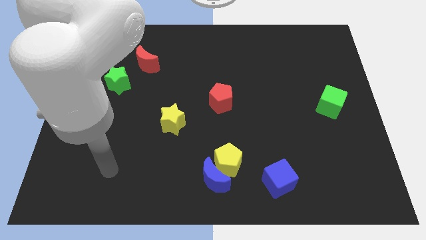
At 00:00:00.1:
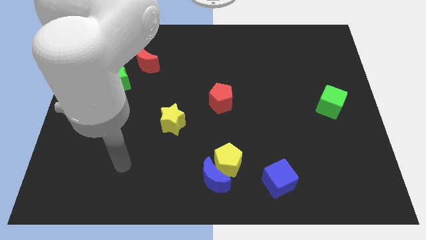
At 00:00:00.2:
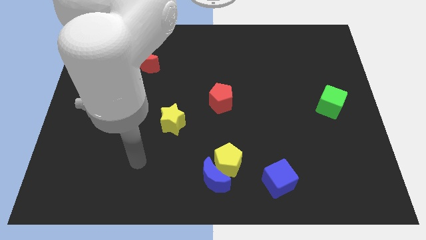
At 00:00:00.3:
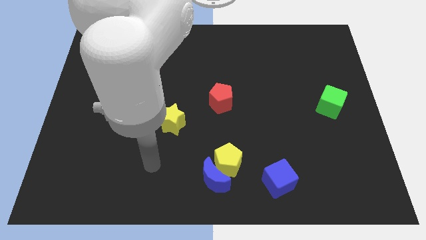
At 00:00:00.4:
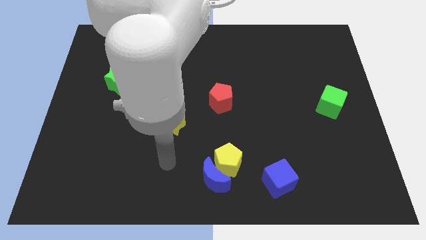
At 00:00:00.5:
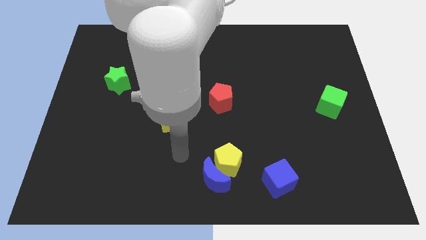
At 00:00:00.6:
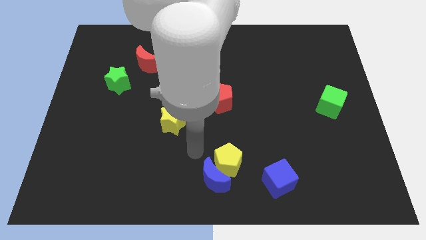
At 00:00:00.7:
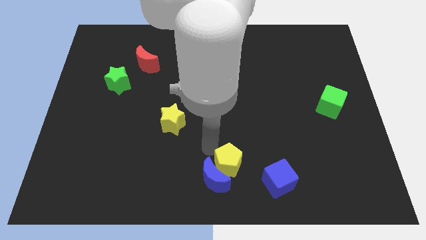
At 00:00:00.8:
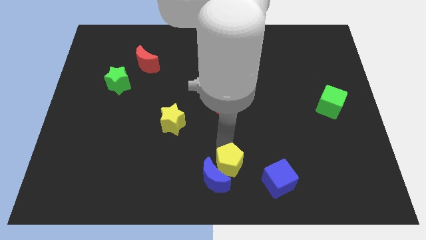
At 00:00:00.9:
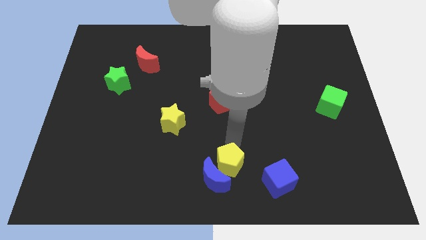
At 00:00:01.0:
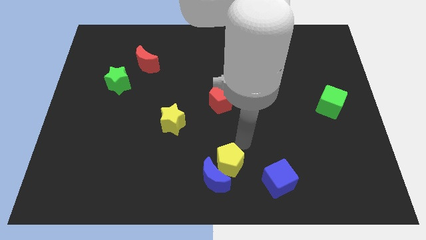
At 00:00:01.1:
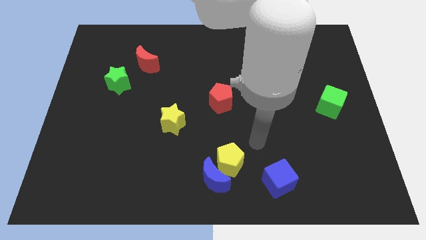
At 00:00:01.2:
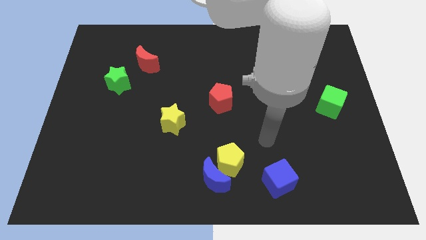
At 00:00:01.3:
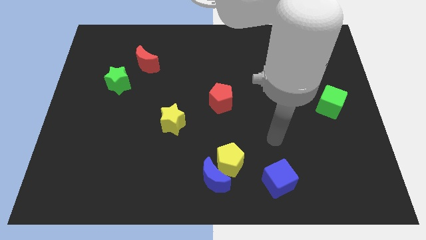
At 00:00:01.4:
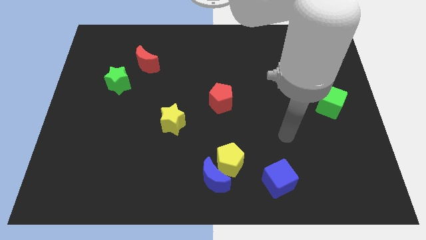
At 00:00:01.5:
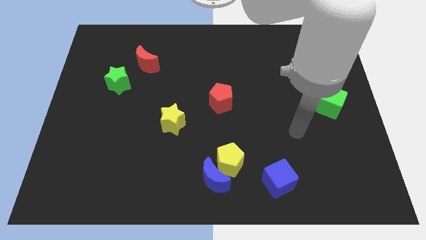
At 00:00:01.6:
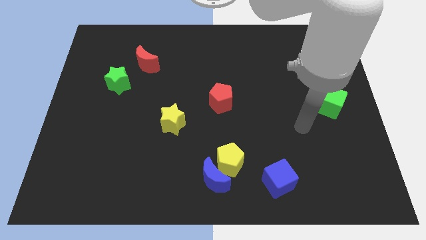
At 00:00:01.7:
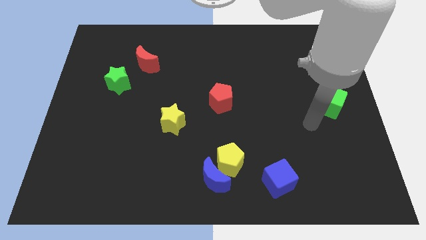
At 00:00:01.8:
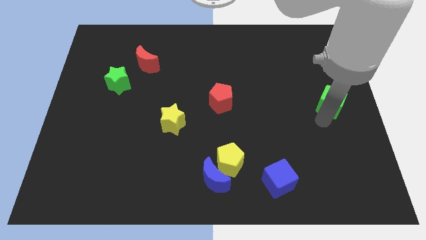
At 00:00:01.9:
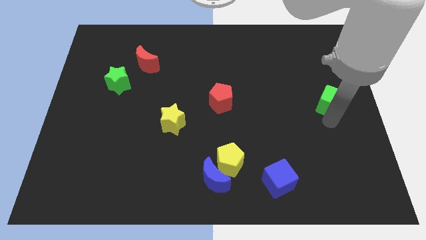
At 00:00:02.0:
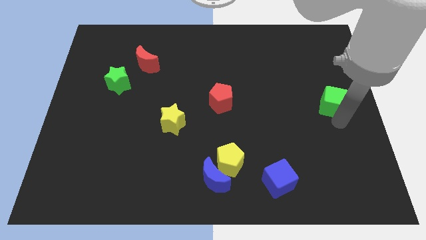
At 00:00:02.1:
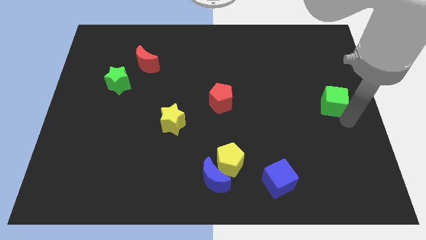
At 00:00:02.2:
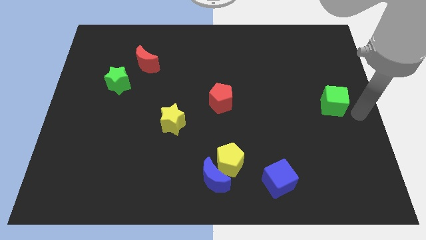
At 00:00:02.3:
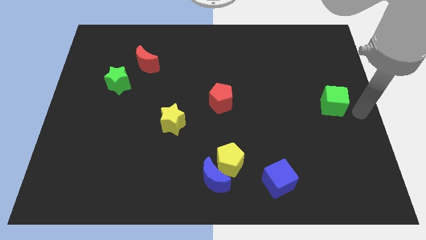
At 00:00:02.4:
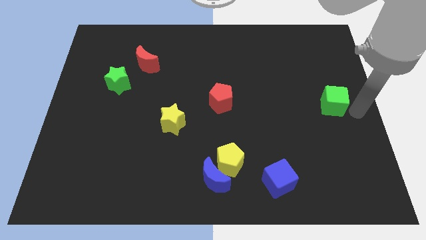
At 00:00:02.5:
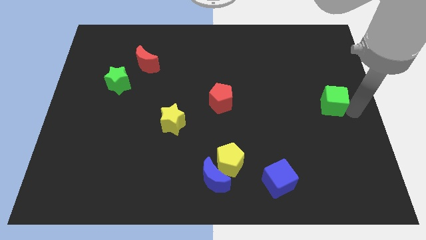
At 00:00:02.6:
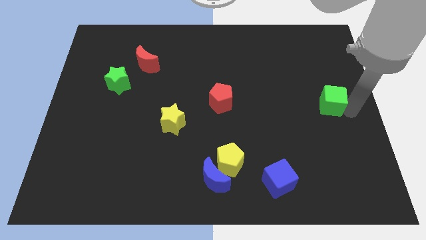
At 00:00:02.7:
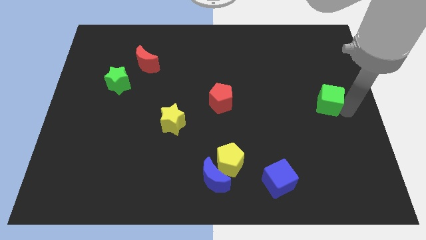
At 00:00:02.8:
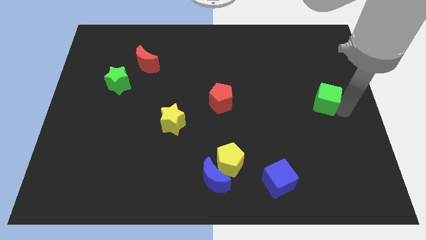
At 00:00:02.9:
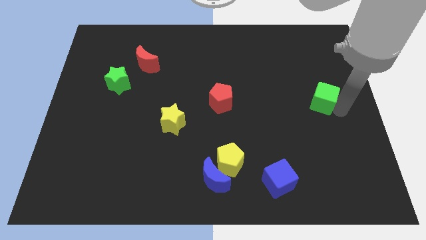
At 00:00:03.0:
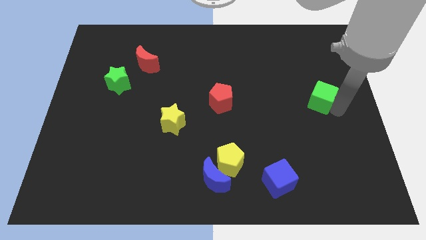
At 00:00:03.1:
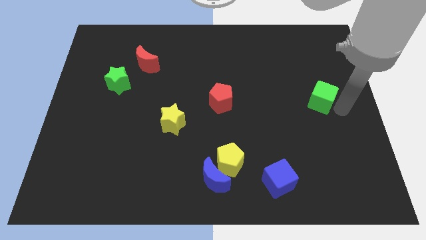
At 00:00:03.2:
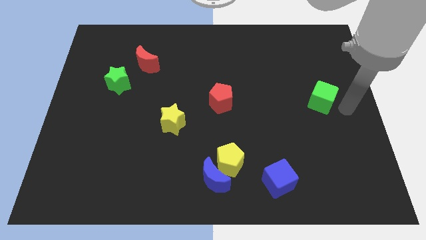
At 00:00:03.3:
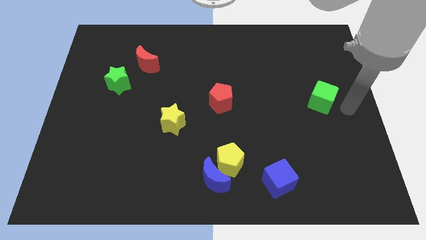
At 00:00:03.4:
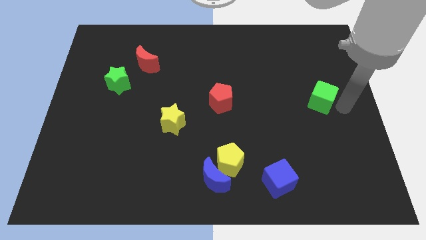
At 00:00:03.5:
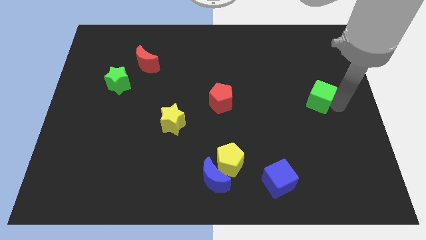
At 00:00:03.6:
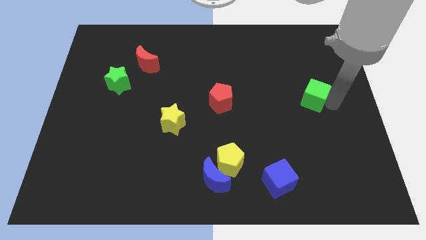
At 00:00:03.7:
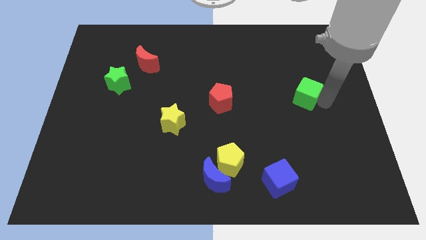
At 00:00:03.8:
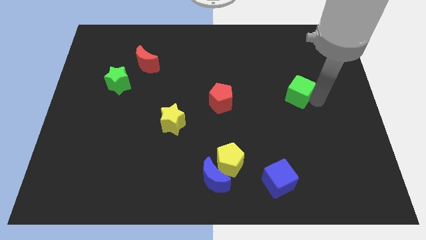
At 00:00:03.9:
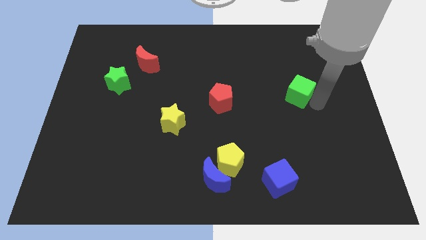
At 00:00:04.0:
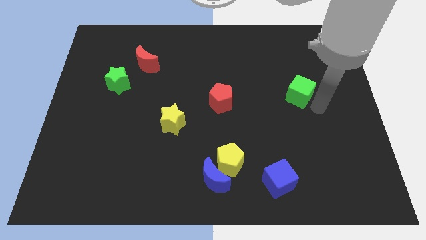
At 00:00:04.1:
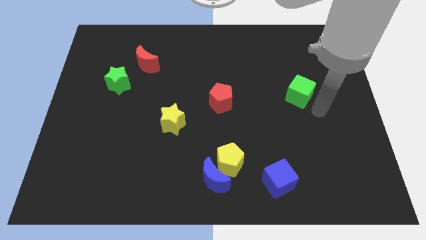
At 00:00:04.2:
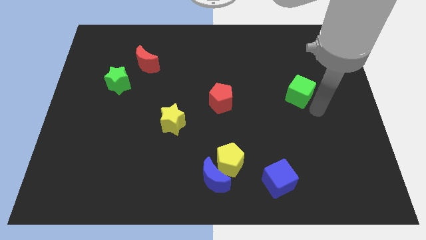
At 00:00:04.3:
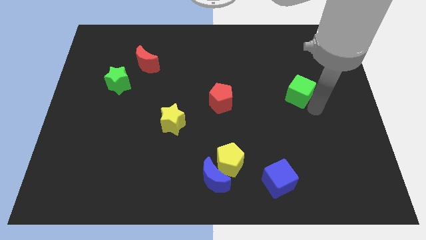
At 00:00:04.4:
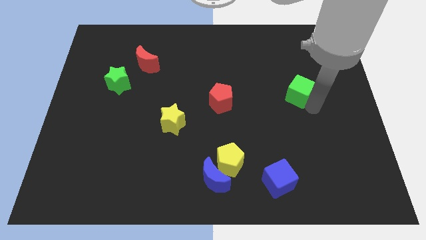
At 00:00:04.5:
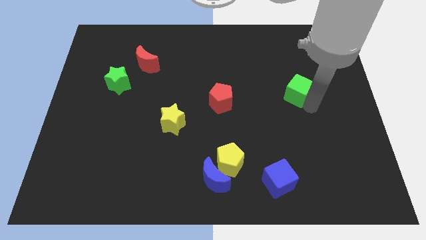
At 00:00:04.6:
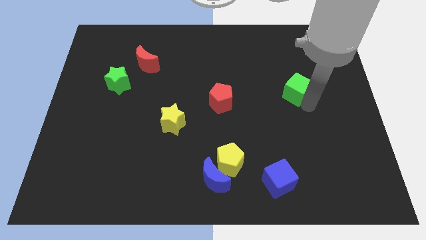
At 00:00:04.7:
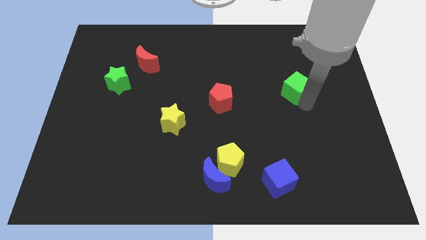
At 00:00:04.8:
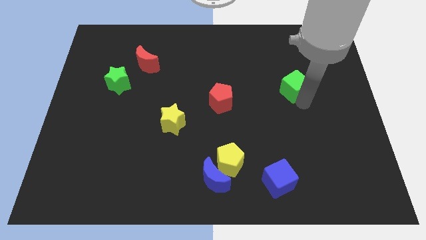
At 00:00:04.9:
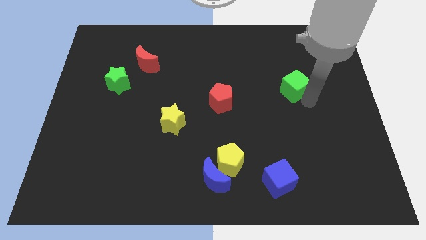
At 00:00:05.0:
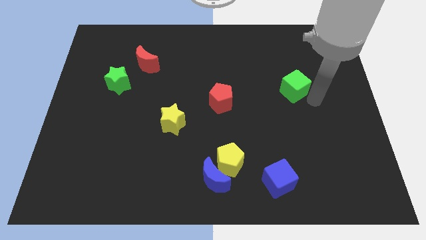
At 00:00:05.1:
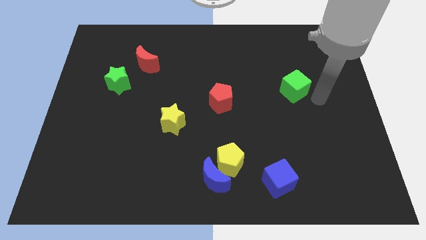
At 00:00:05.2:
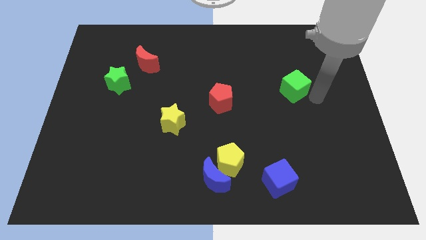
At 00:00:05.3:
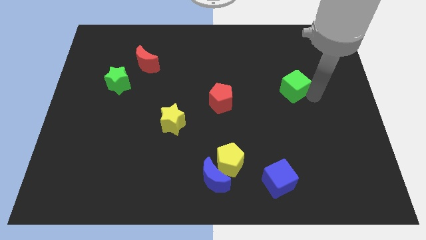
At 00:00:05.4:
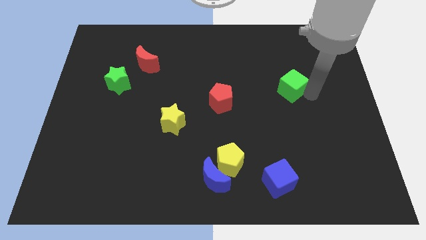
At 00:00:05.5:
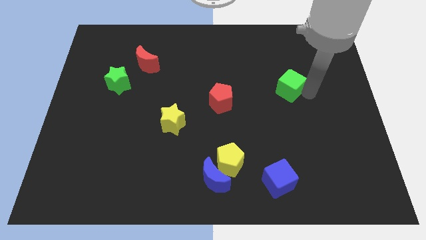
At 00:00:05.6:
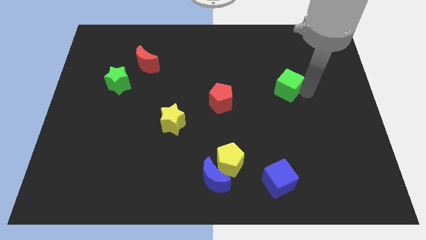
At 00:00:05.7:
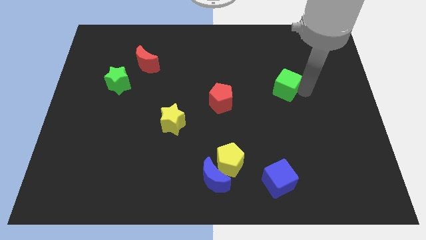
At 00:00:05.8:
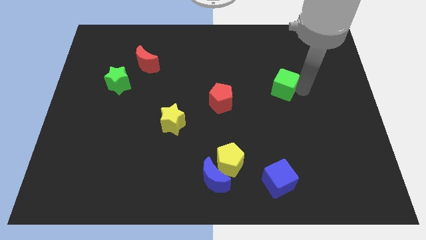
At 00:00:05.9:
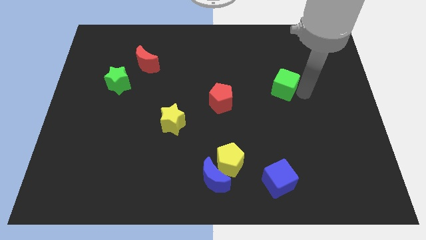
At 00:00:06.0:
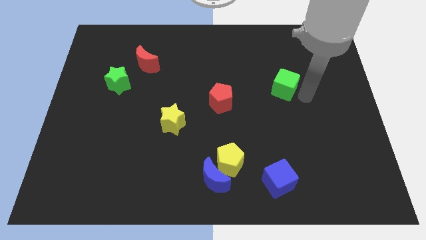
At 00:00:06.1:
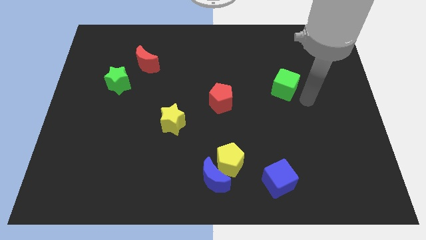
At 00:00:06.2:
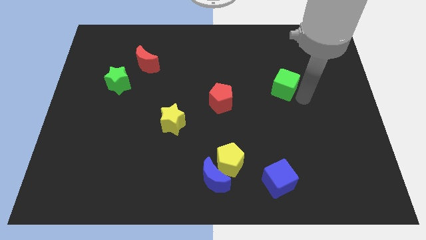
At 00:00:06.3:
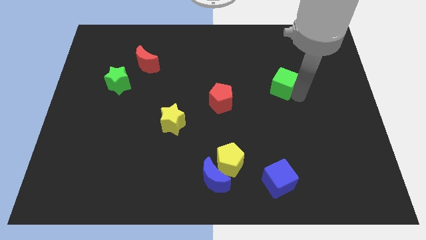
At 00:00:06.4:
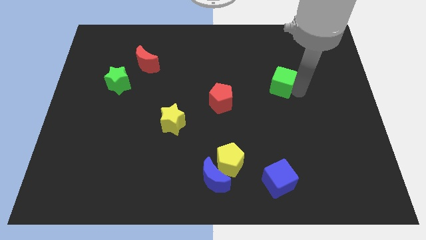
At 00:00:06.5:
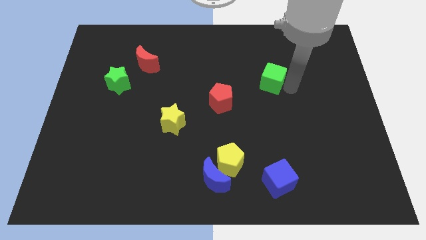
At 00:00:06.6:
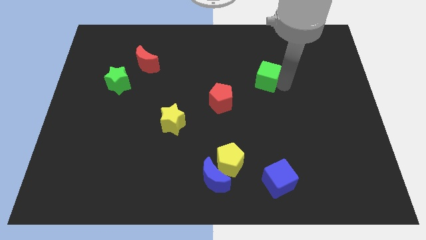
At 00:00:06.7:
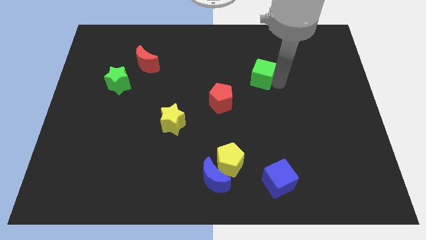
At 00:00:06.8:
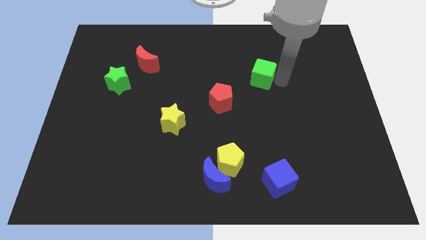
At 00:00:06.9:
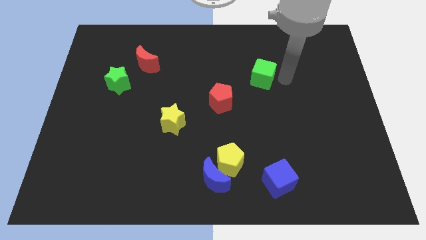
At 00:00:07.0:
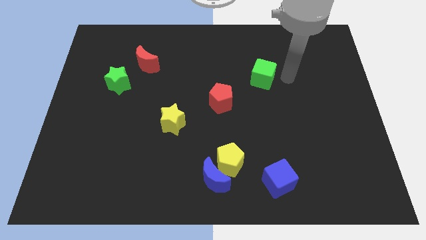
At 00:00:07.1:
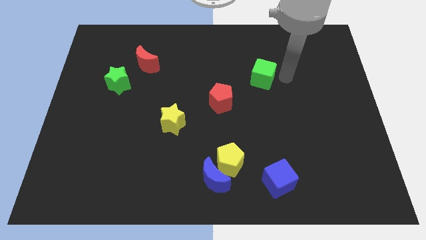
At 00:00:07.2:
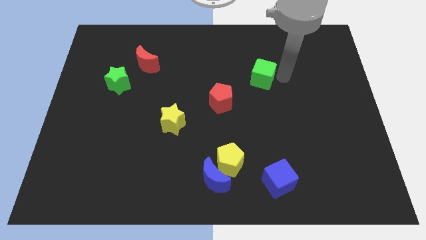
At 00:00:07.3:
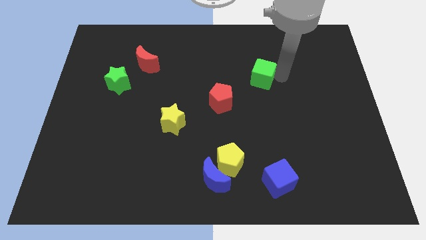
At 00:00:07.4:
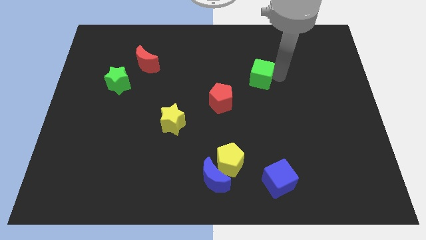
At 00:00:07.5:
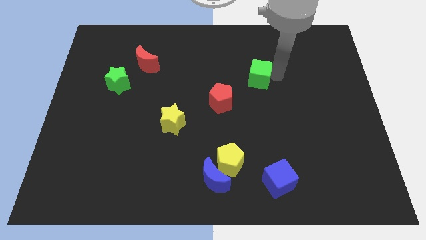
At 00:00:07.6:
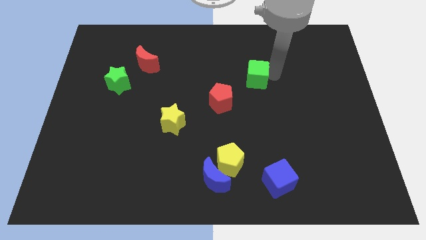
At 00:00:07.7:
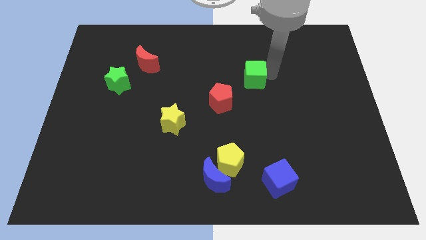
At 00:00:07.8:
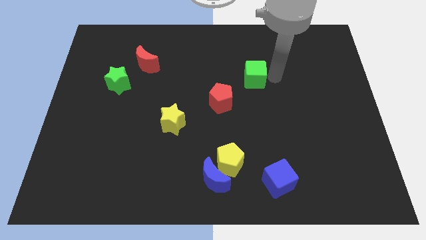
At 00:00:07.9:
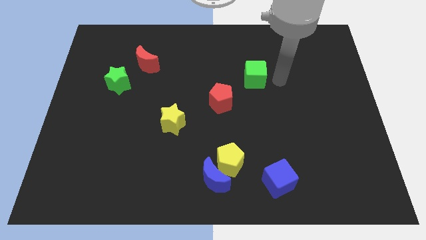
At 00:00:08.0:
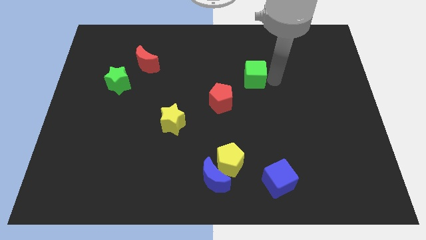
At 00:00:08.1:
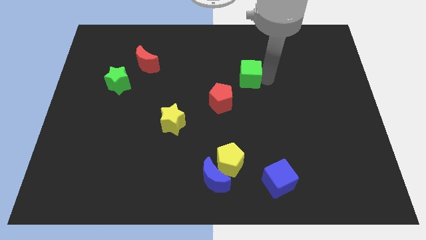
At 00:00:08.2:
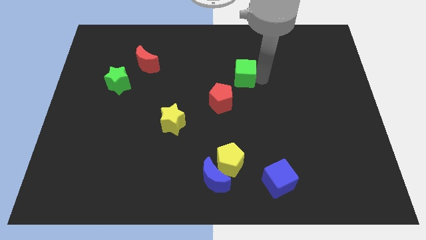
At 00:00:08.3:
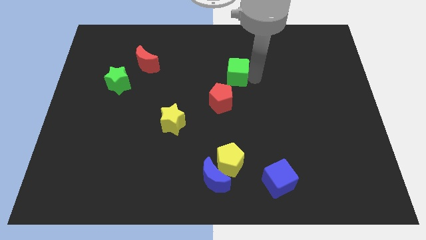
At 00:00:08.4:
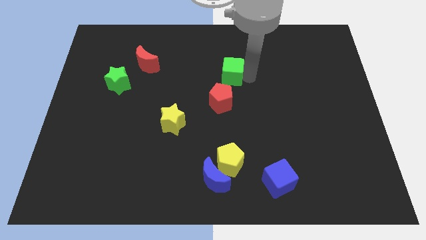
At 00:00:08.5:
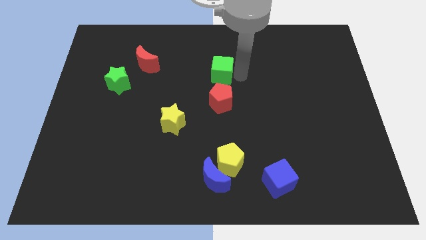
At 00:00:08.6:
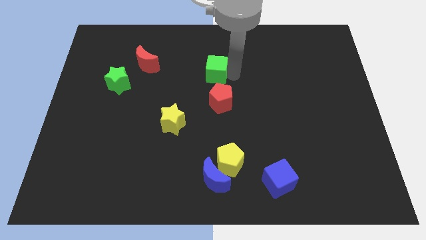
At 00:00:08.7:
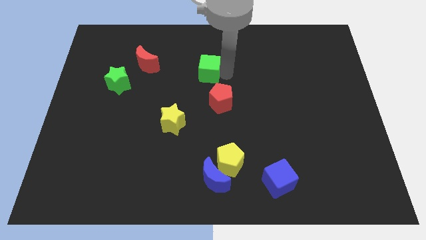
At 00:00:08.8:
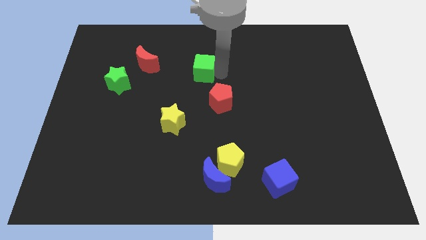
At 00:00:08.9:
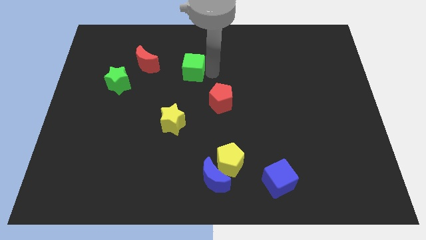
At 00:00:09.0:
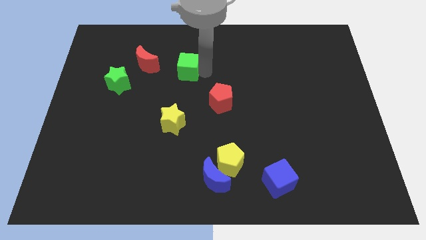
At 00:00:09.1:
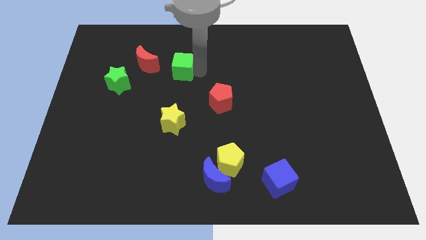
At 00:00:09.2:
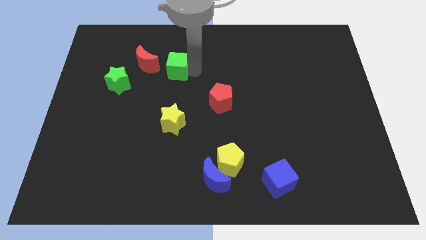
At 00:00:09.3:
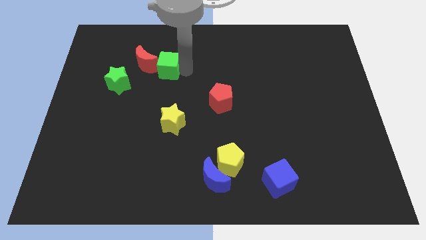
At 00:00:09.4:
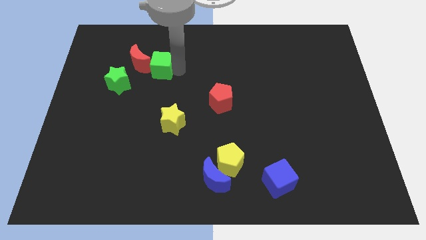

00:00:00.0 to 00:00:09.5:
put the green cube towards the red moon
